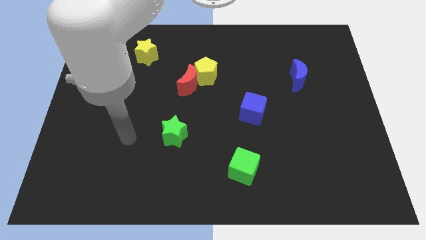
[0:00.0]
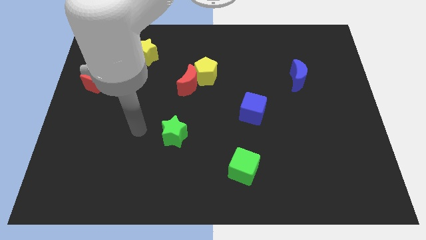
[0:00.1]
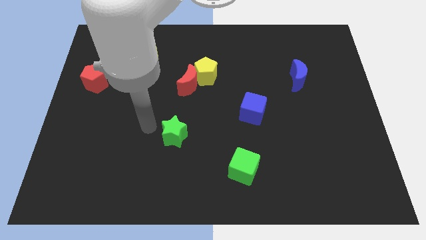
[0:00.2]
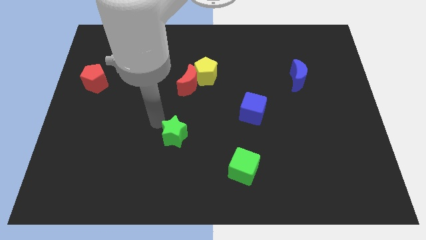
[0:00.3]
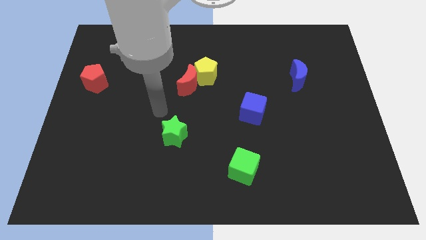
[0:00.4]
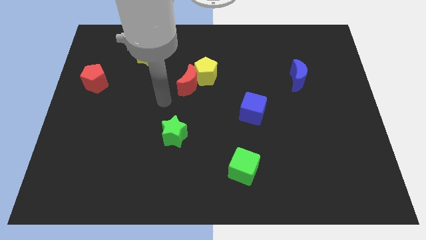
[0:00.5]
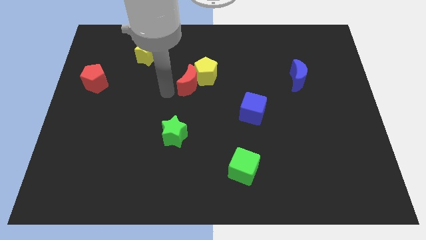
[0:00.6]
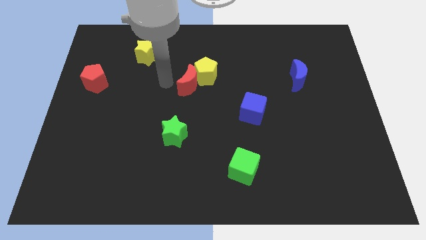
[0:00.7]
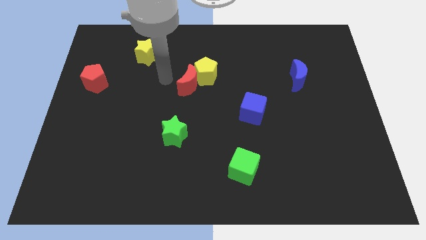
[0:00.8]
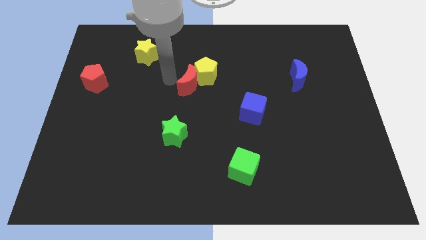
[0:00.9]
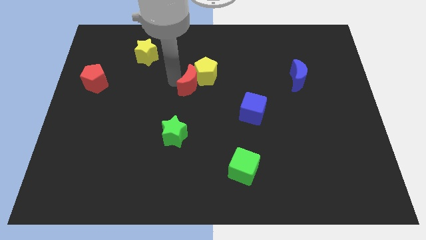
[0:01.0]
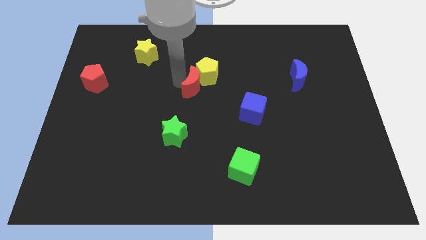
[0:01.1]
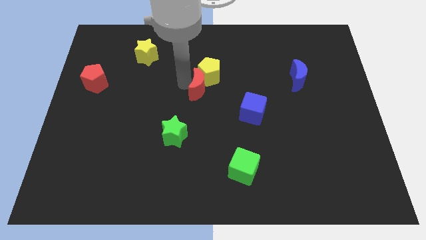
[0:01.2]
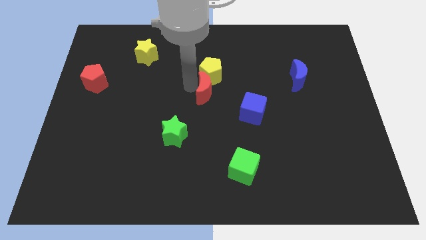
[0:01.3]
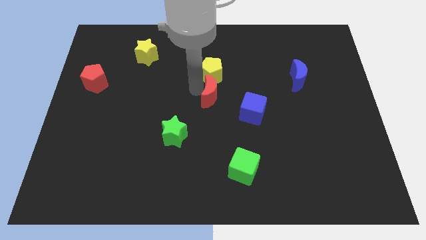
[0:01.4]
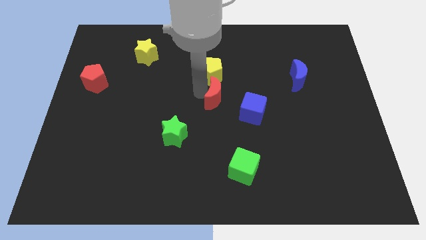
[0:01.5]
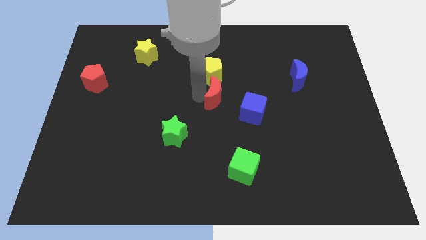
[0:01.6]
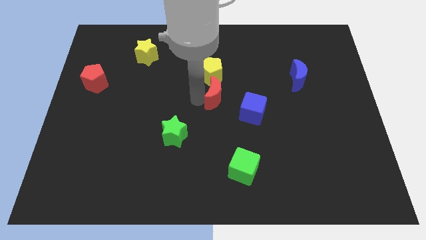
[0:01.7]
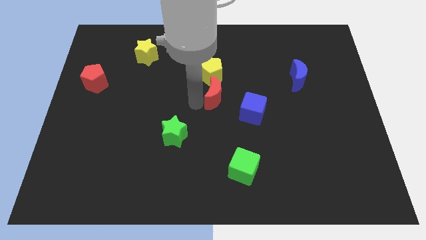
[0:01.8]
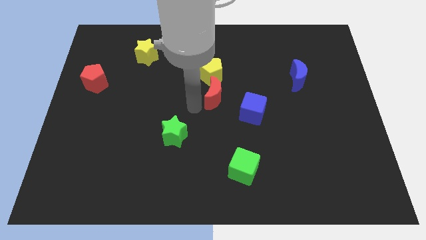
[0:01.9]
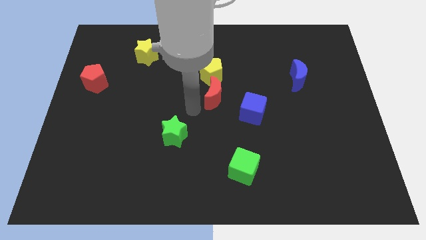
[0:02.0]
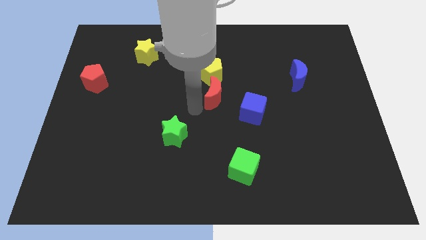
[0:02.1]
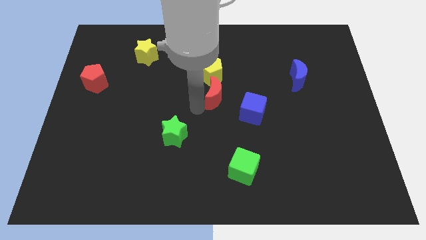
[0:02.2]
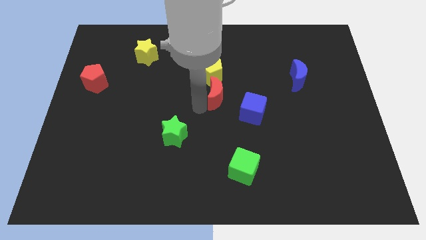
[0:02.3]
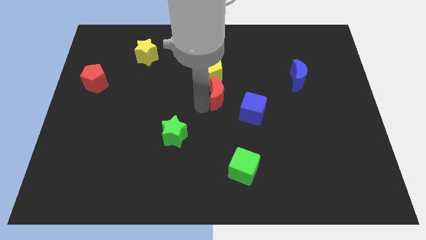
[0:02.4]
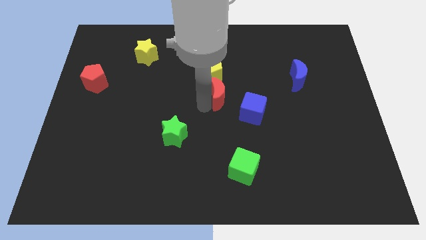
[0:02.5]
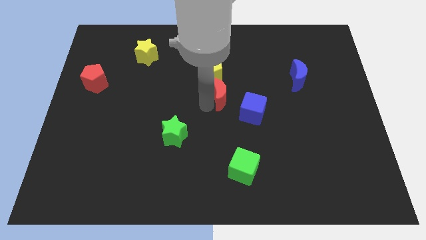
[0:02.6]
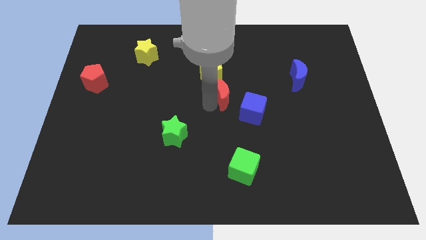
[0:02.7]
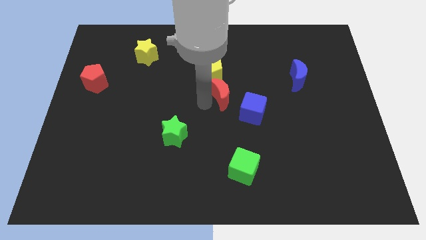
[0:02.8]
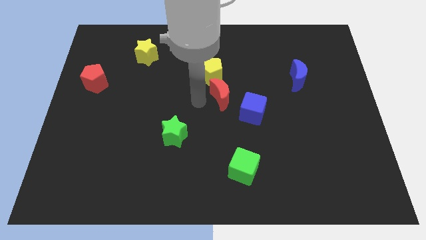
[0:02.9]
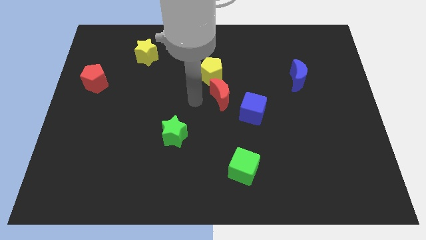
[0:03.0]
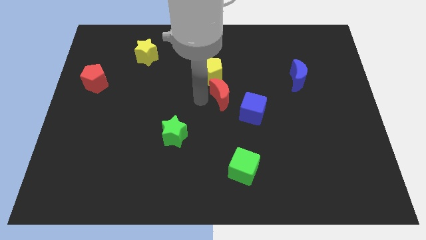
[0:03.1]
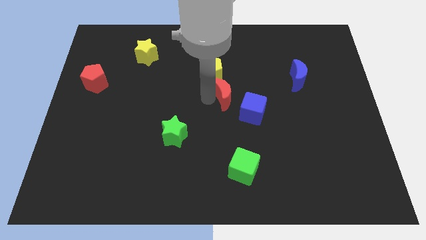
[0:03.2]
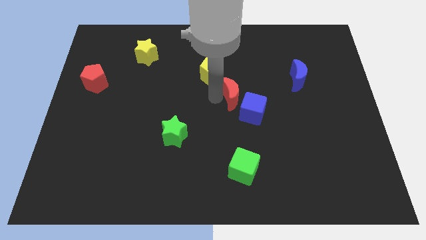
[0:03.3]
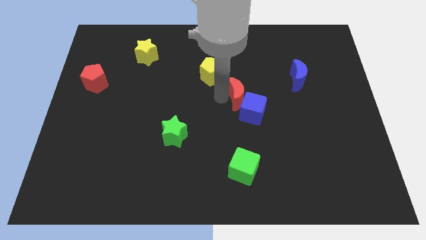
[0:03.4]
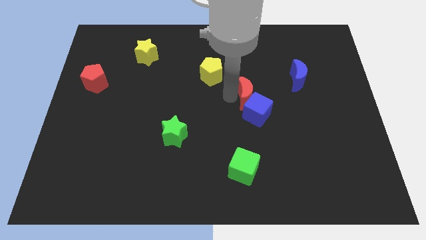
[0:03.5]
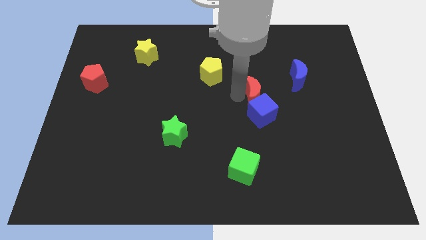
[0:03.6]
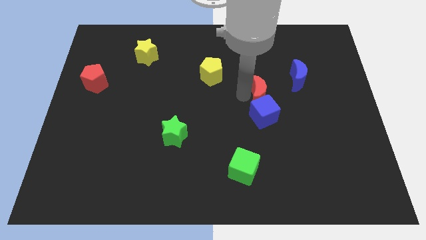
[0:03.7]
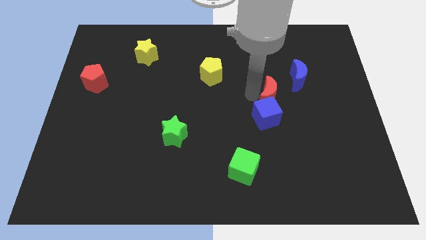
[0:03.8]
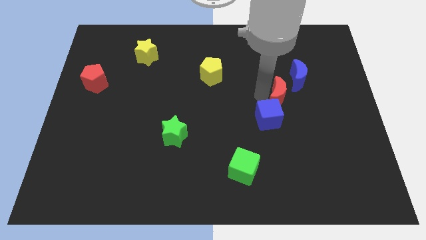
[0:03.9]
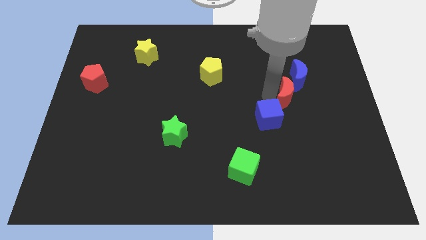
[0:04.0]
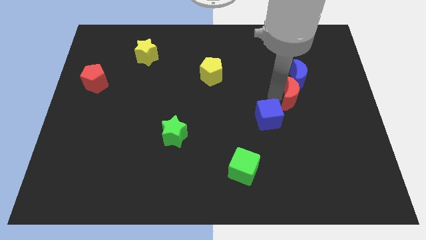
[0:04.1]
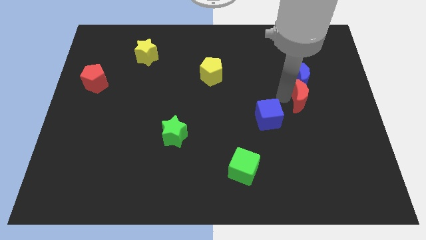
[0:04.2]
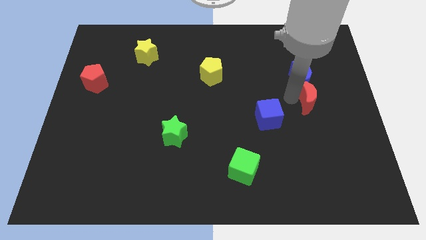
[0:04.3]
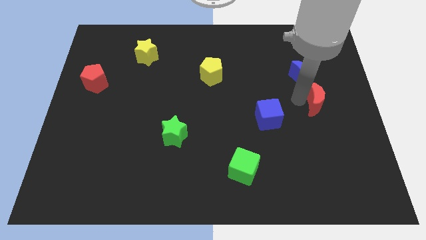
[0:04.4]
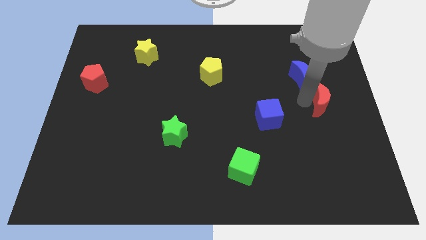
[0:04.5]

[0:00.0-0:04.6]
slide the red moon to the center right

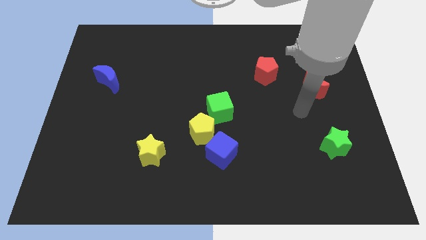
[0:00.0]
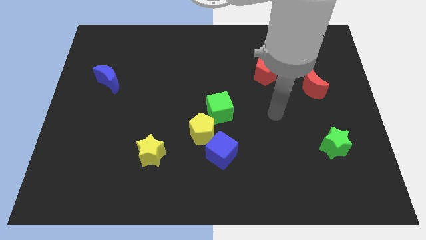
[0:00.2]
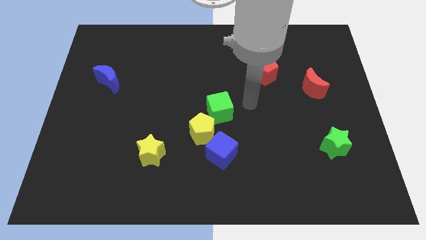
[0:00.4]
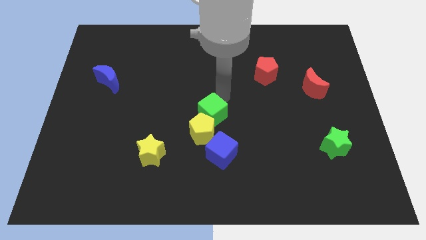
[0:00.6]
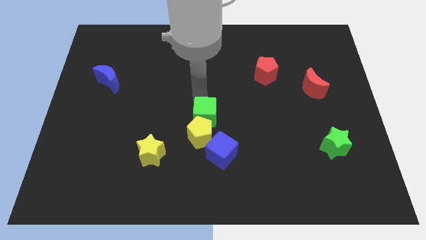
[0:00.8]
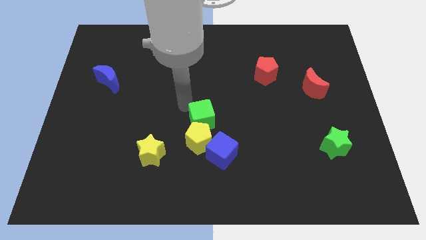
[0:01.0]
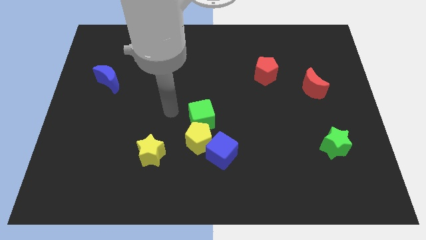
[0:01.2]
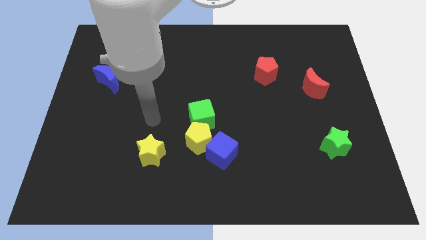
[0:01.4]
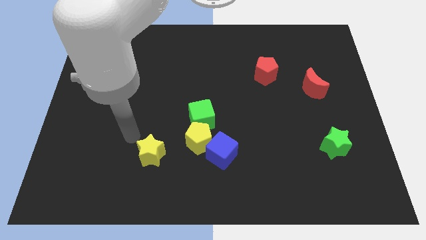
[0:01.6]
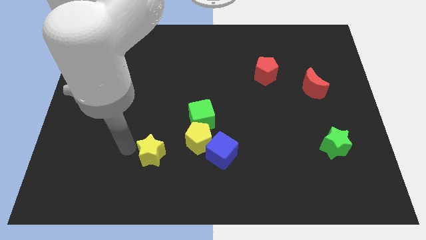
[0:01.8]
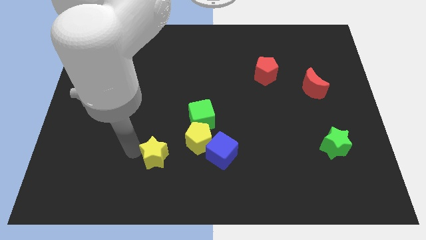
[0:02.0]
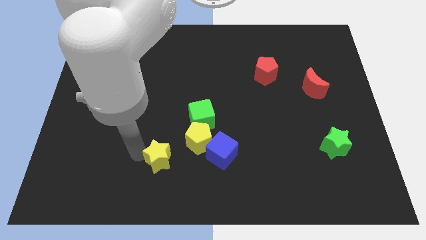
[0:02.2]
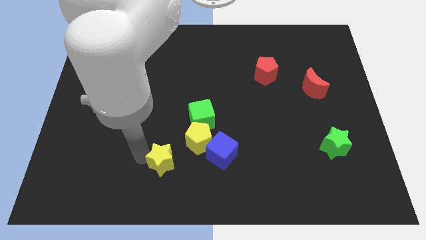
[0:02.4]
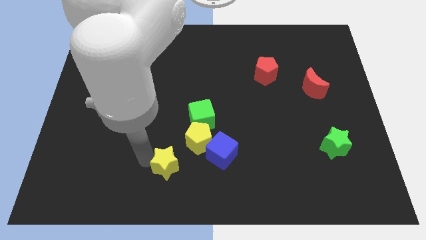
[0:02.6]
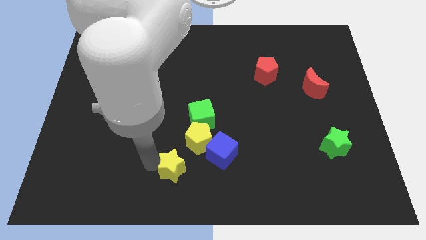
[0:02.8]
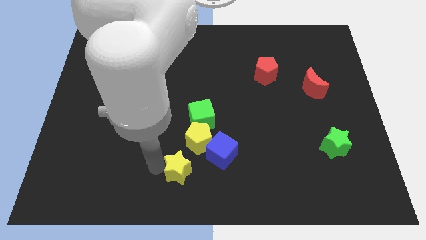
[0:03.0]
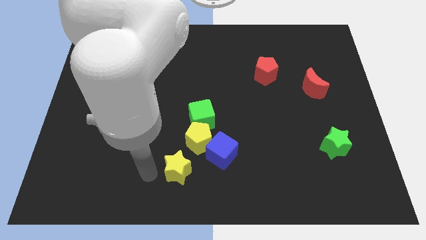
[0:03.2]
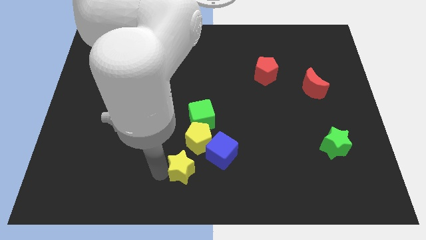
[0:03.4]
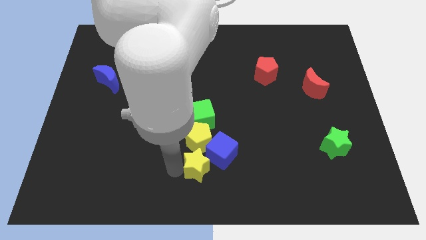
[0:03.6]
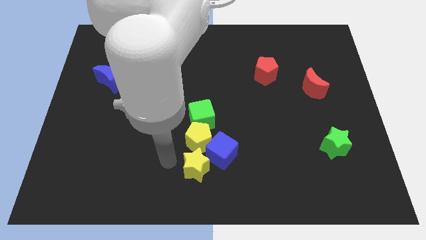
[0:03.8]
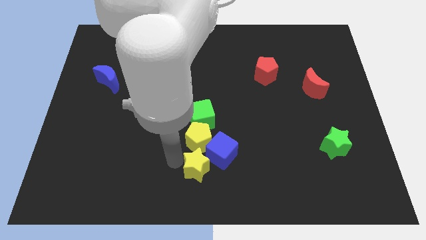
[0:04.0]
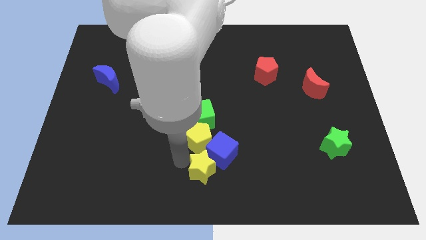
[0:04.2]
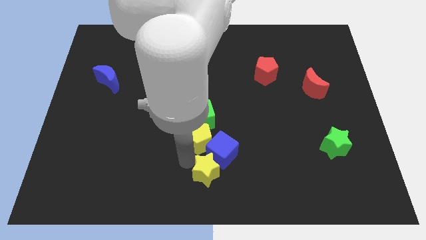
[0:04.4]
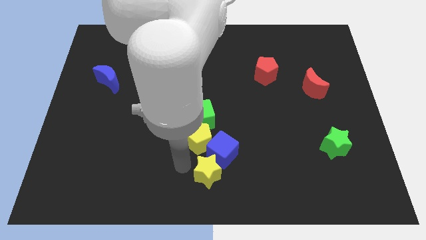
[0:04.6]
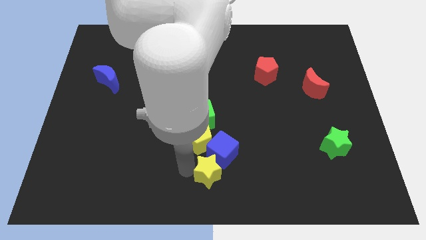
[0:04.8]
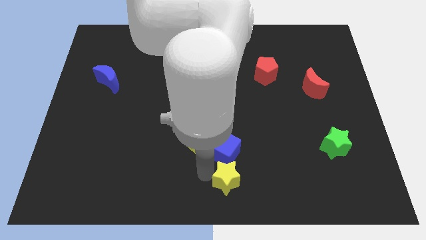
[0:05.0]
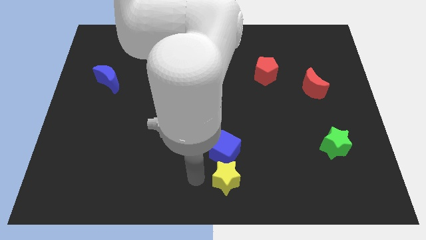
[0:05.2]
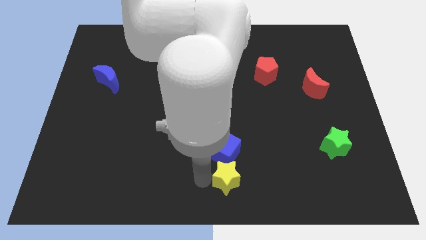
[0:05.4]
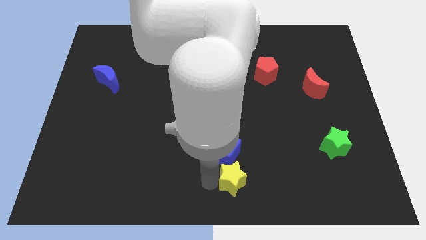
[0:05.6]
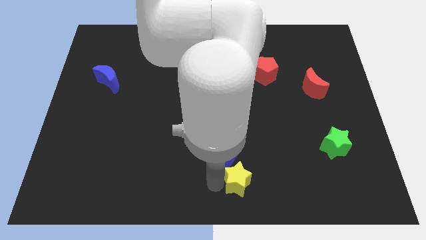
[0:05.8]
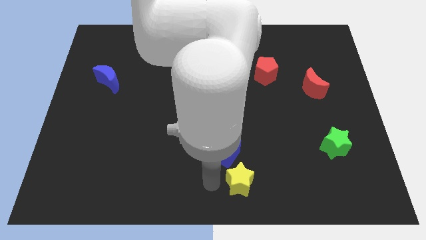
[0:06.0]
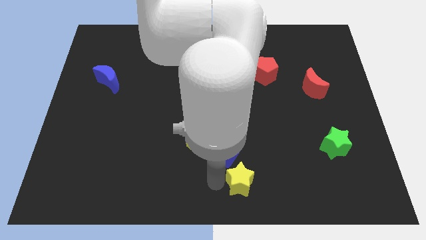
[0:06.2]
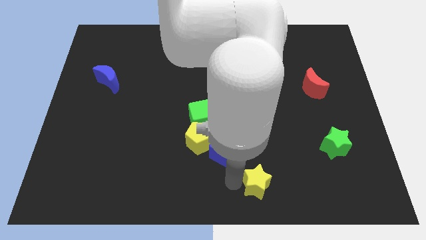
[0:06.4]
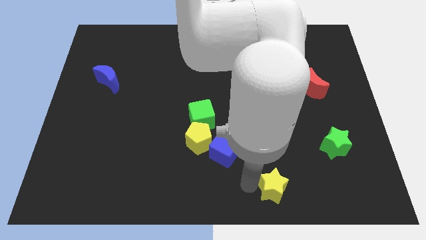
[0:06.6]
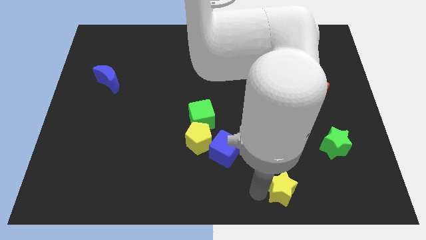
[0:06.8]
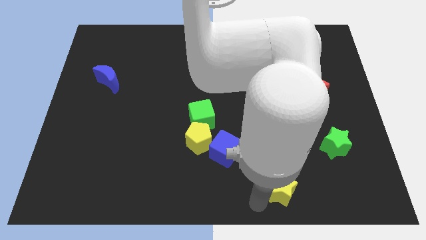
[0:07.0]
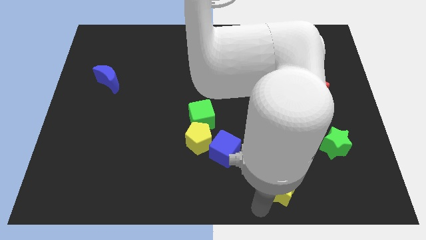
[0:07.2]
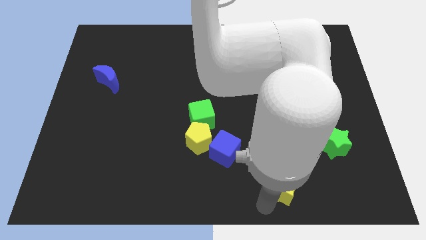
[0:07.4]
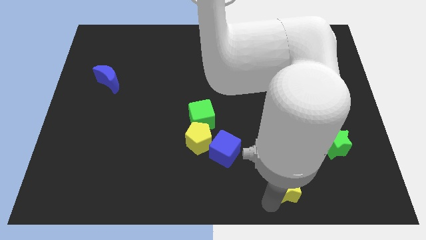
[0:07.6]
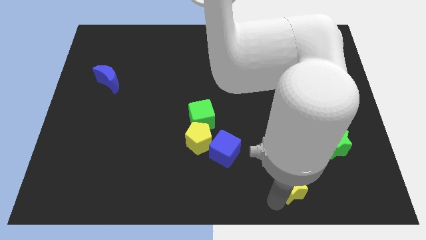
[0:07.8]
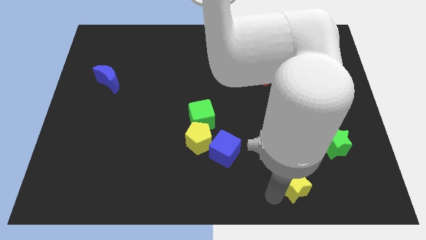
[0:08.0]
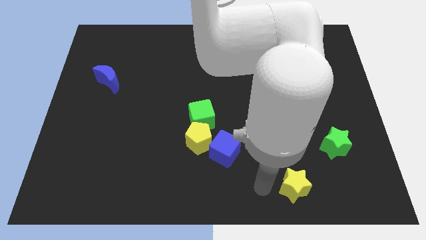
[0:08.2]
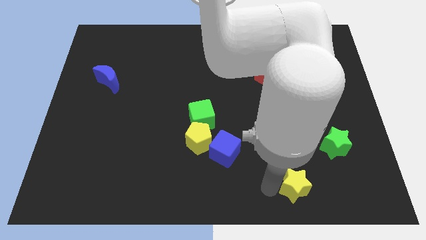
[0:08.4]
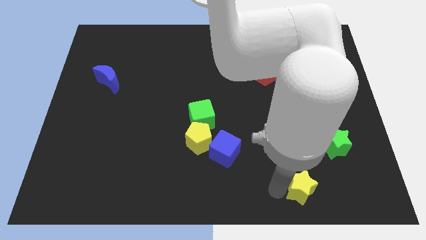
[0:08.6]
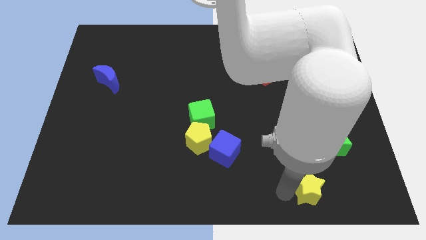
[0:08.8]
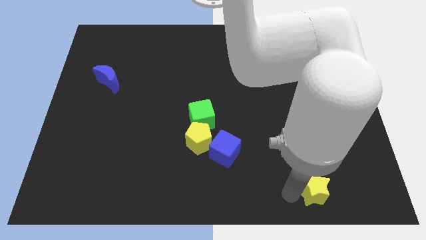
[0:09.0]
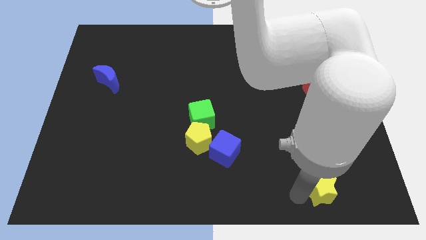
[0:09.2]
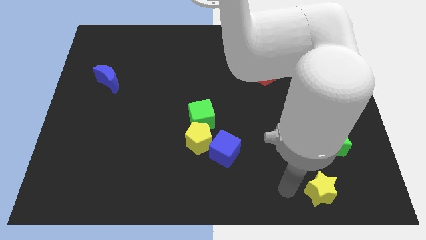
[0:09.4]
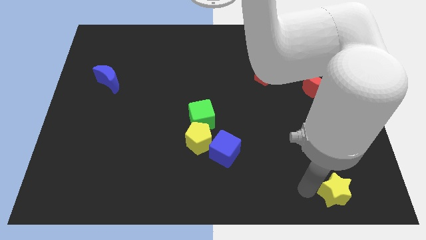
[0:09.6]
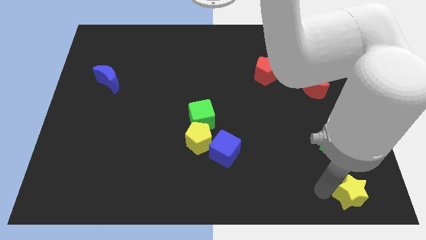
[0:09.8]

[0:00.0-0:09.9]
push the yellow star to the bottom right corner
